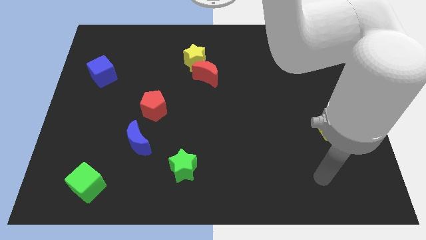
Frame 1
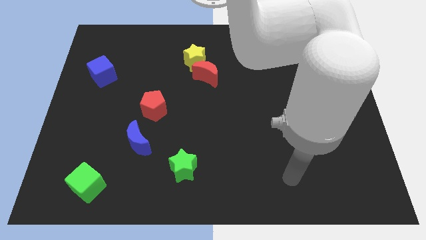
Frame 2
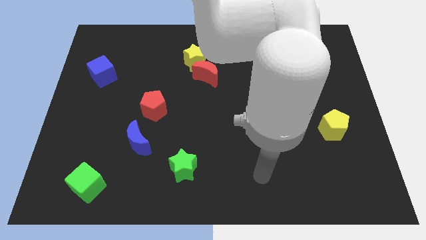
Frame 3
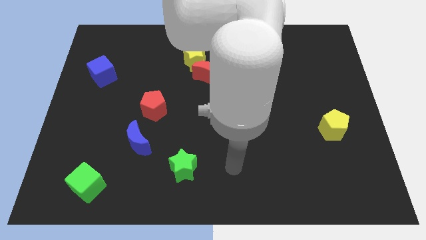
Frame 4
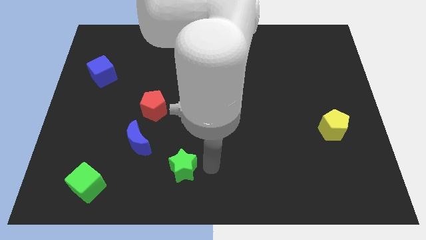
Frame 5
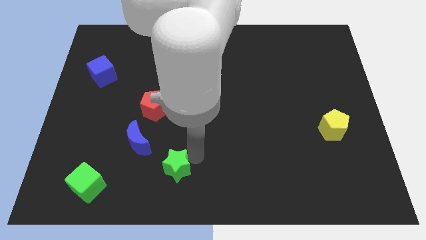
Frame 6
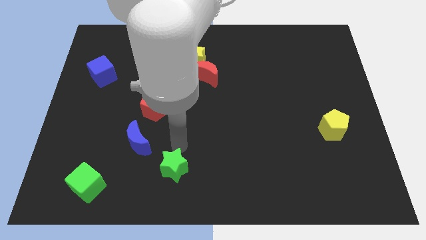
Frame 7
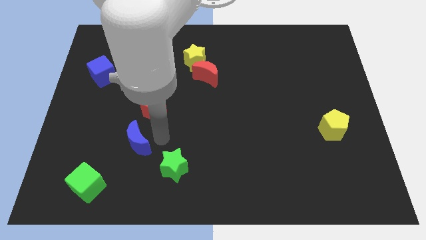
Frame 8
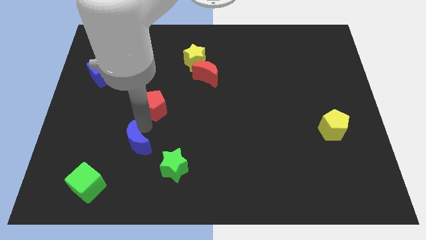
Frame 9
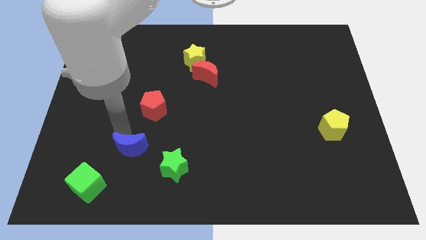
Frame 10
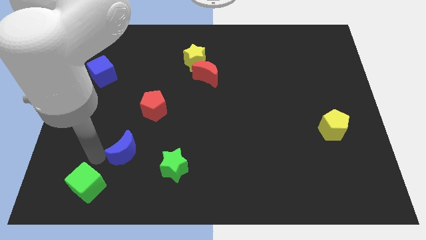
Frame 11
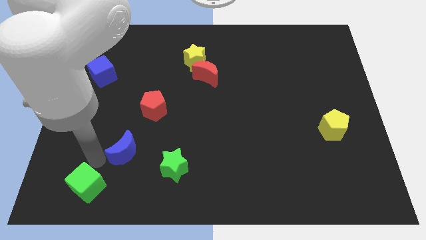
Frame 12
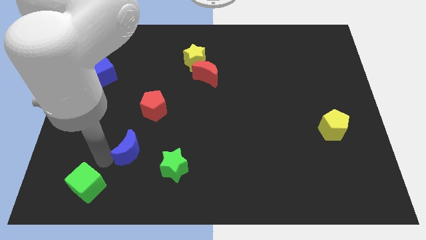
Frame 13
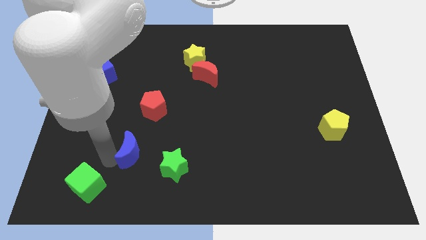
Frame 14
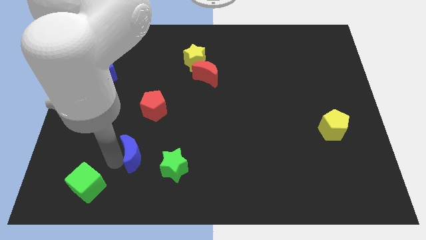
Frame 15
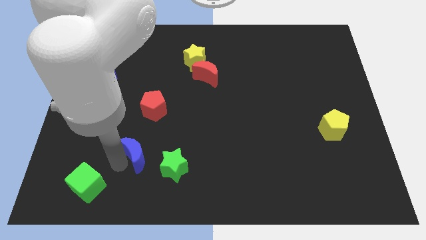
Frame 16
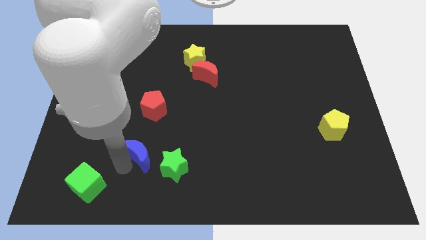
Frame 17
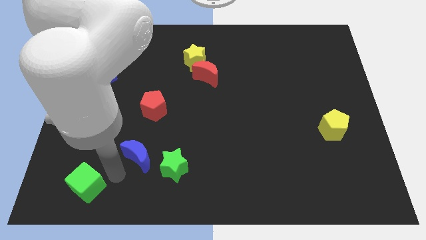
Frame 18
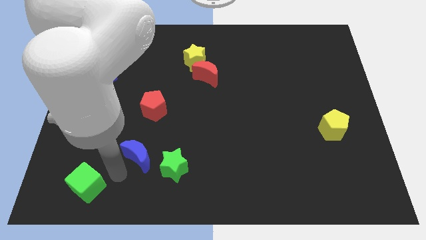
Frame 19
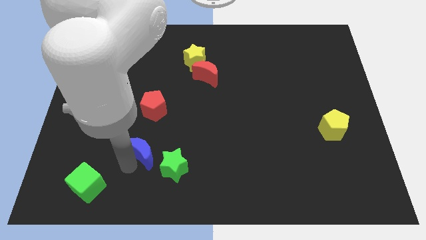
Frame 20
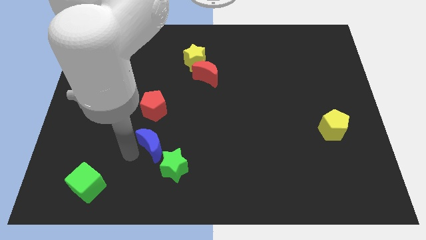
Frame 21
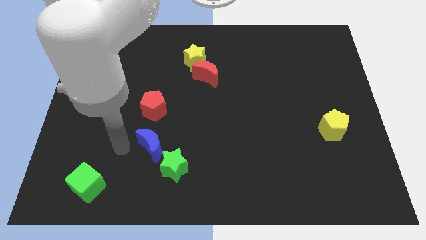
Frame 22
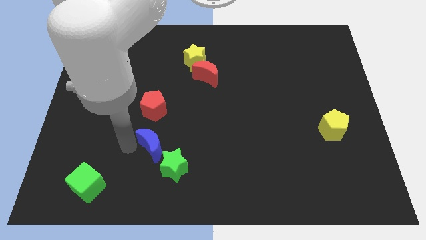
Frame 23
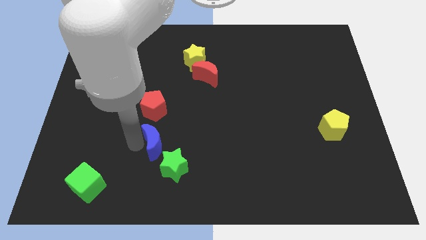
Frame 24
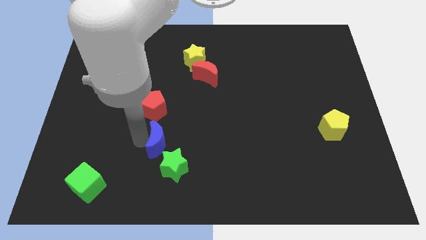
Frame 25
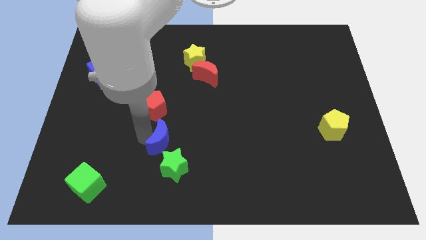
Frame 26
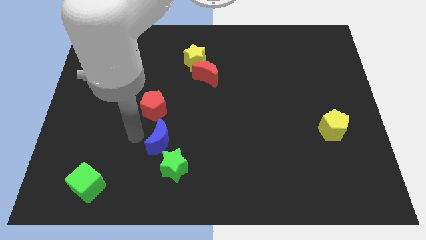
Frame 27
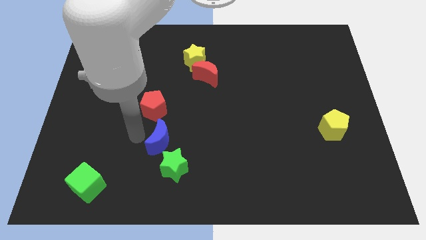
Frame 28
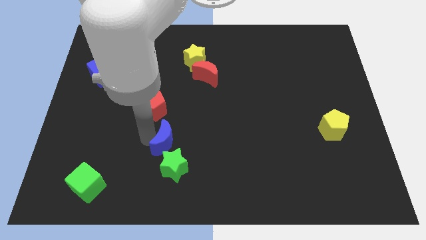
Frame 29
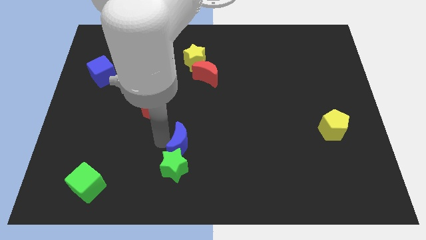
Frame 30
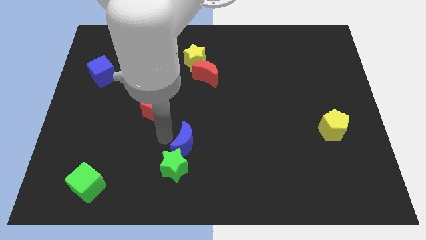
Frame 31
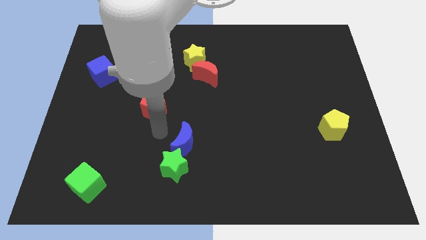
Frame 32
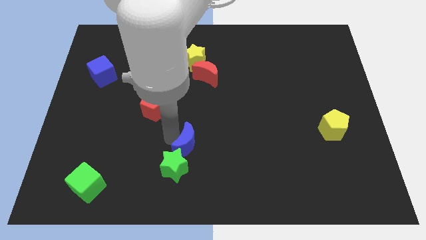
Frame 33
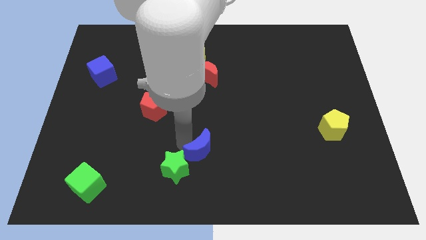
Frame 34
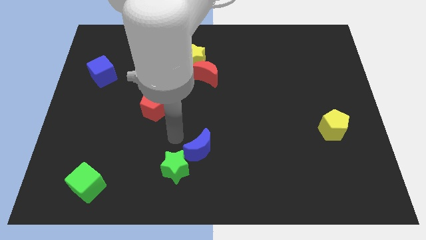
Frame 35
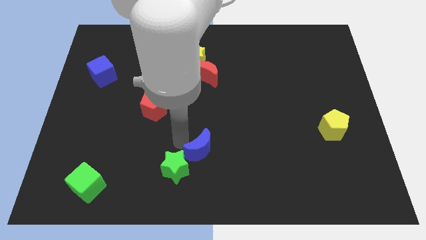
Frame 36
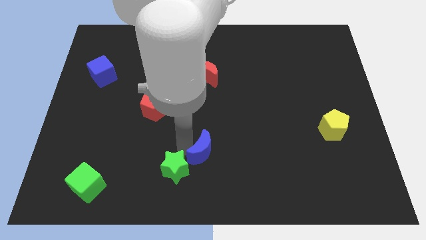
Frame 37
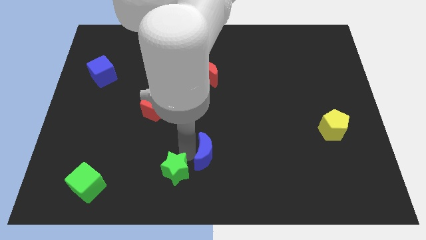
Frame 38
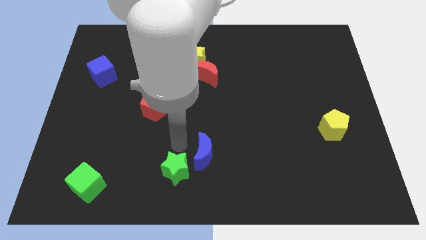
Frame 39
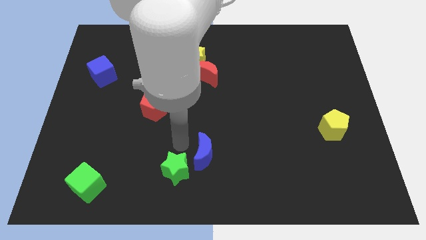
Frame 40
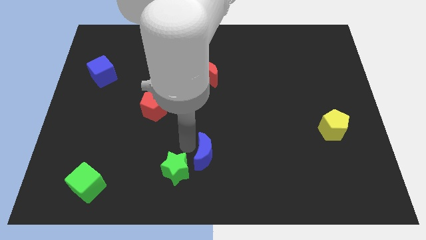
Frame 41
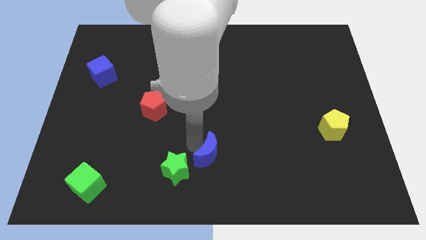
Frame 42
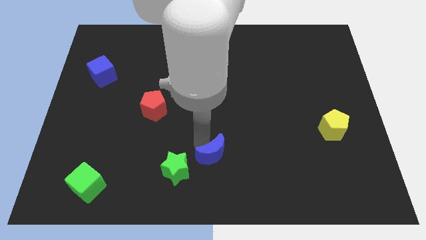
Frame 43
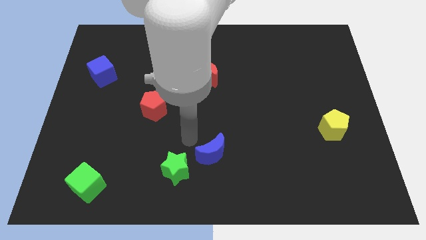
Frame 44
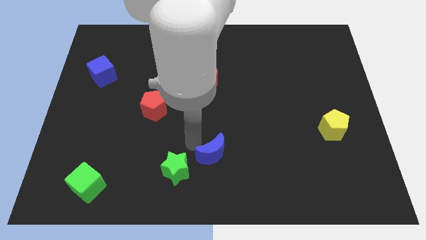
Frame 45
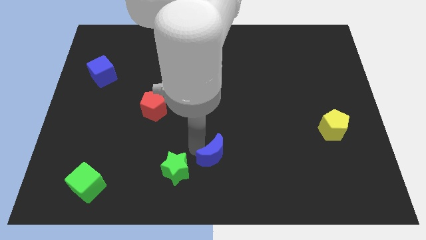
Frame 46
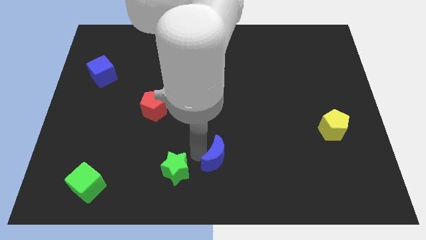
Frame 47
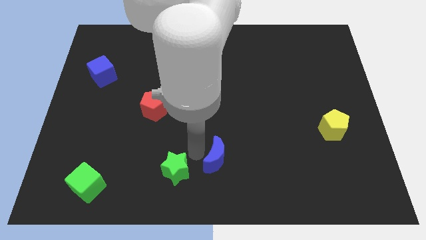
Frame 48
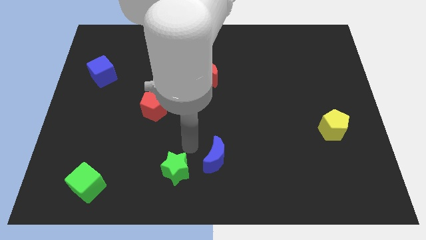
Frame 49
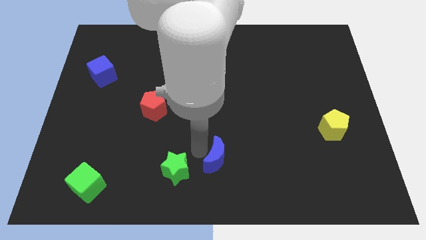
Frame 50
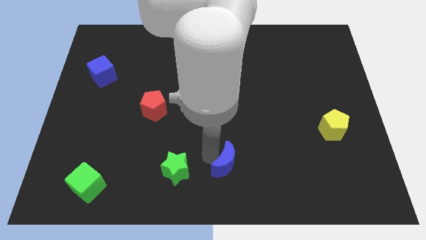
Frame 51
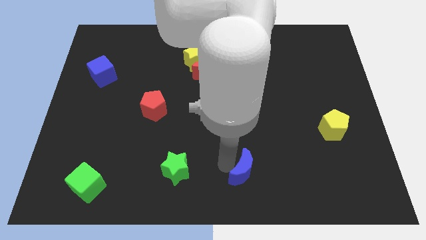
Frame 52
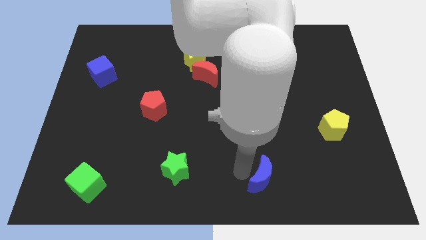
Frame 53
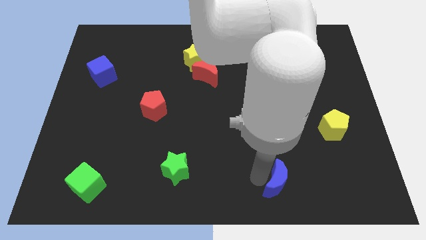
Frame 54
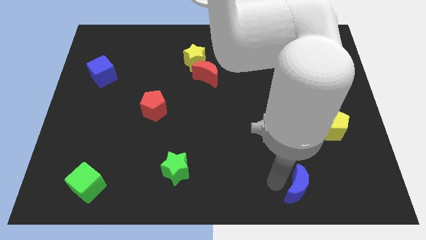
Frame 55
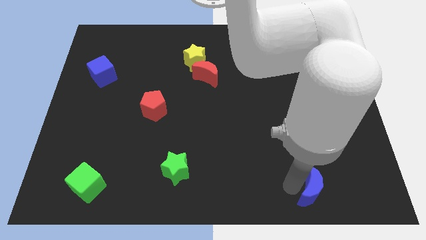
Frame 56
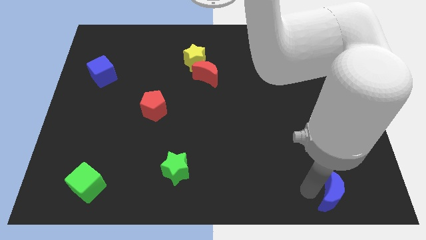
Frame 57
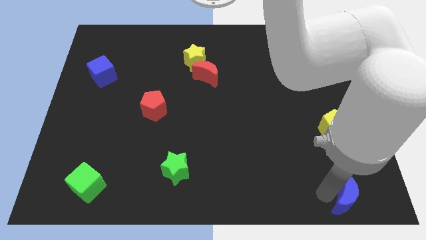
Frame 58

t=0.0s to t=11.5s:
slide the blue moon to the bottom right

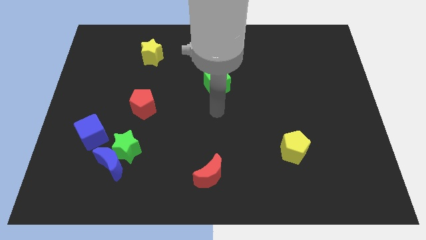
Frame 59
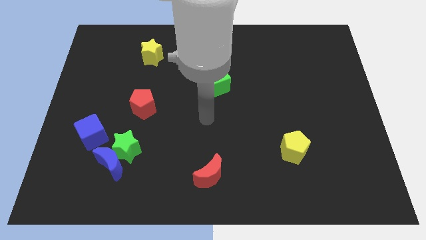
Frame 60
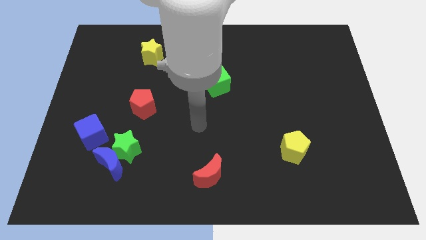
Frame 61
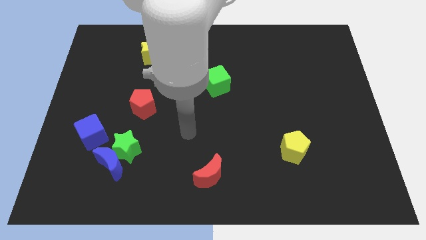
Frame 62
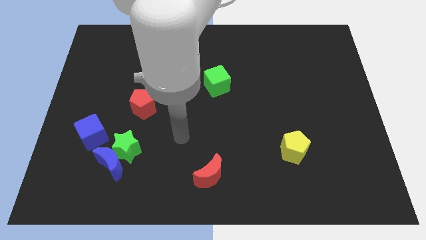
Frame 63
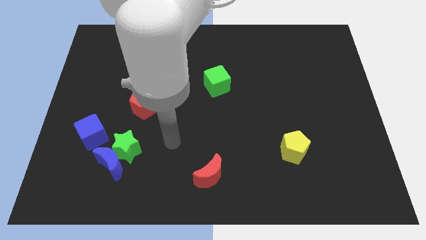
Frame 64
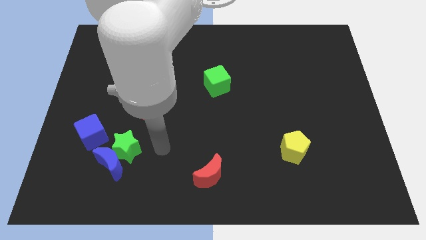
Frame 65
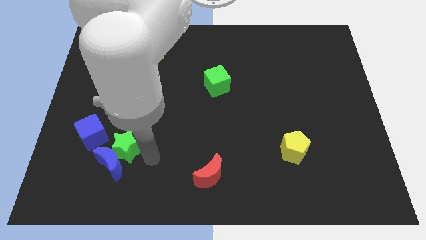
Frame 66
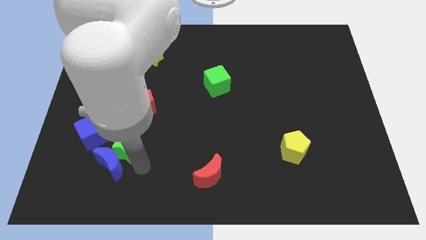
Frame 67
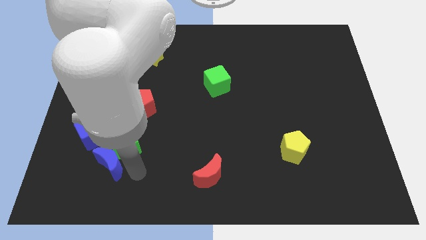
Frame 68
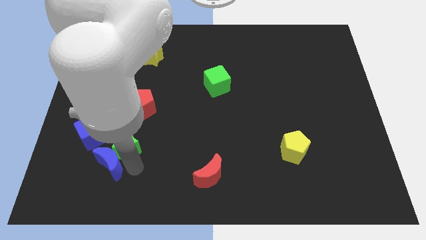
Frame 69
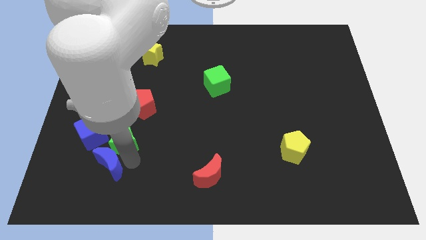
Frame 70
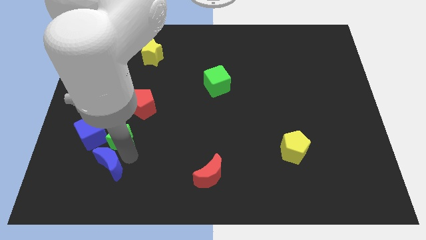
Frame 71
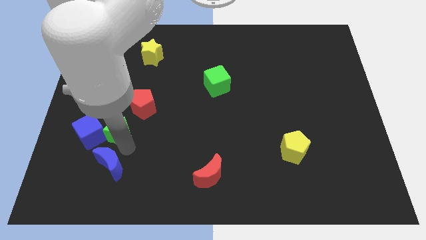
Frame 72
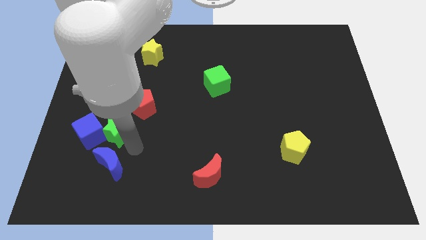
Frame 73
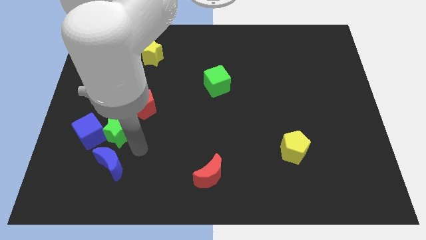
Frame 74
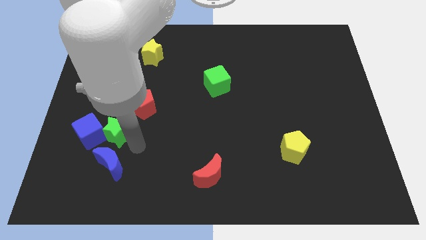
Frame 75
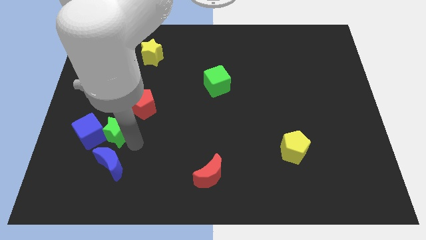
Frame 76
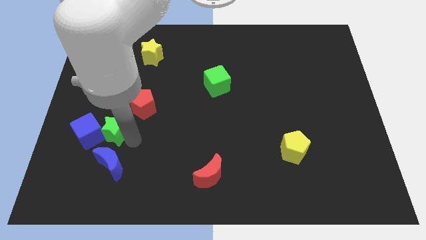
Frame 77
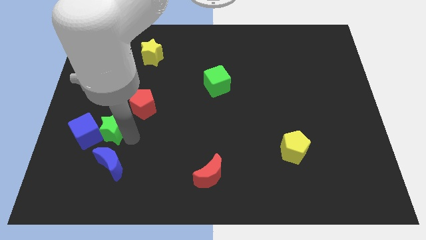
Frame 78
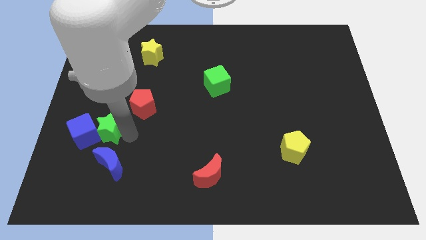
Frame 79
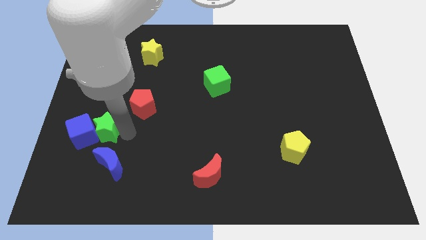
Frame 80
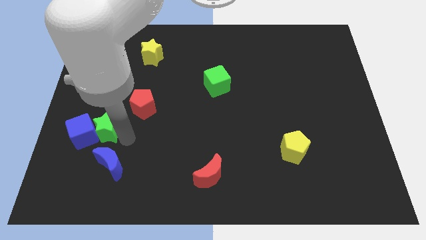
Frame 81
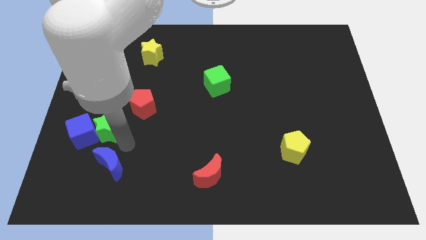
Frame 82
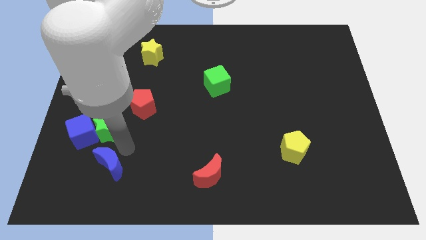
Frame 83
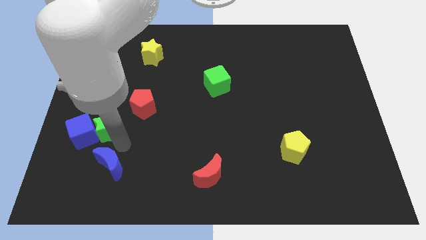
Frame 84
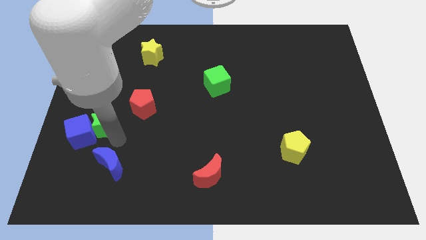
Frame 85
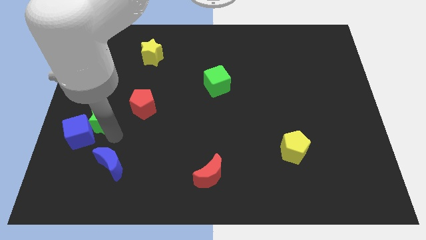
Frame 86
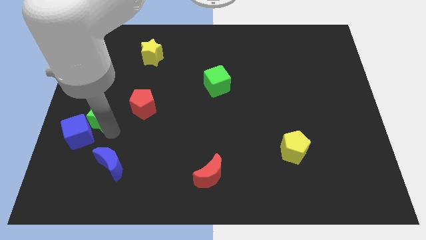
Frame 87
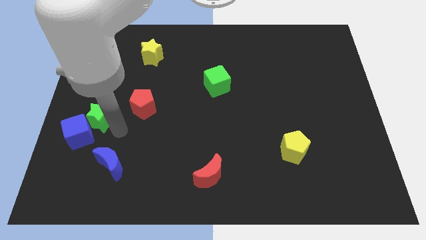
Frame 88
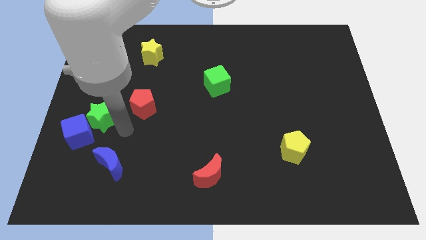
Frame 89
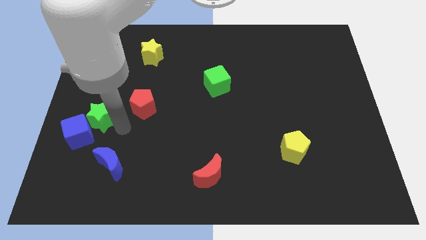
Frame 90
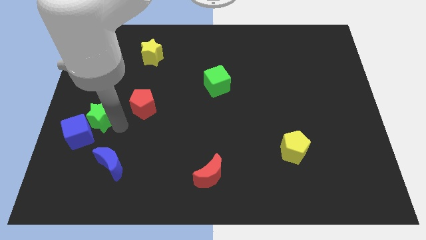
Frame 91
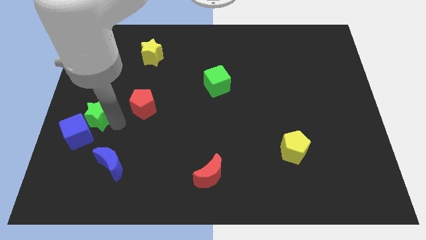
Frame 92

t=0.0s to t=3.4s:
push the green star to the left side
